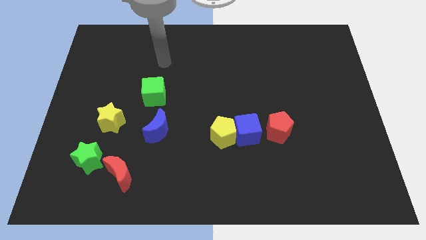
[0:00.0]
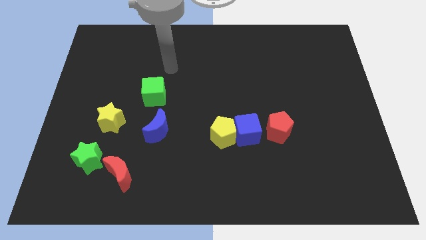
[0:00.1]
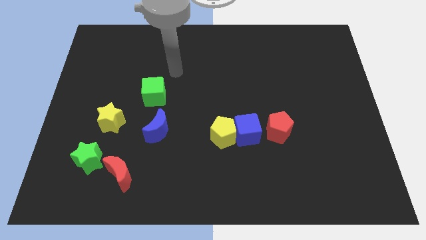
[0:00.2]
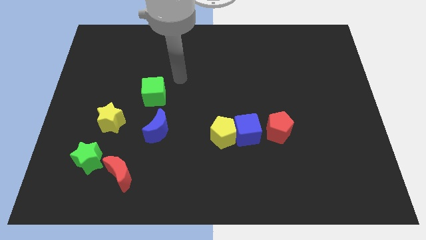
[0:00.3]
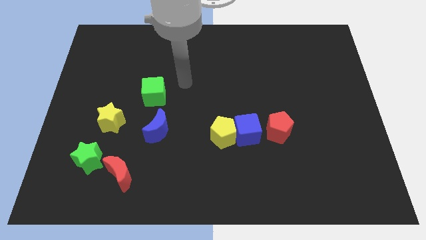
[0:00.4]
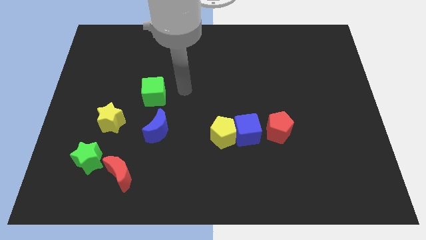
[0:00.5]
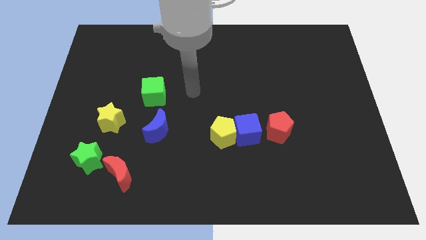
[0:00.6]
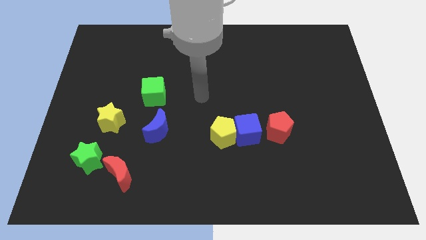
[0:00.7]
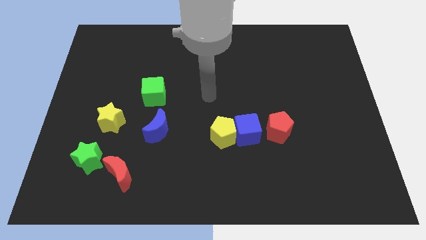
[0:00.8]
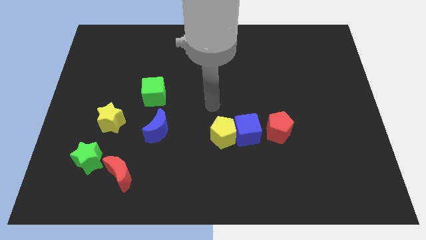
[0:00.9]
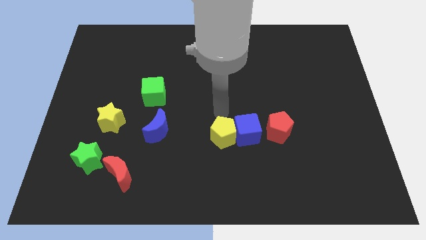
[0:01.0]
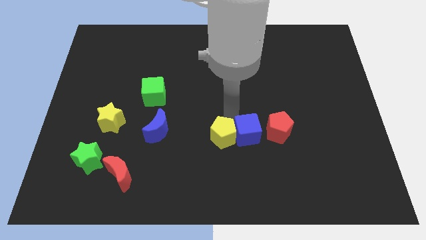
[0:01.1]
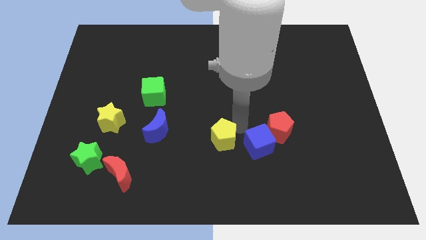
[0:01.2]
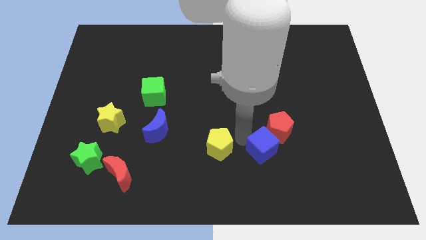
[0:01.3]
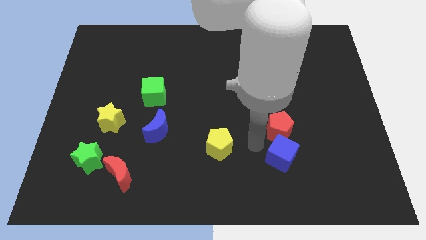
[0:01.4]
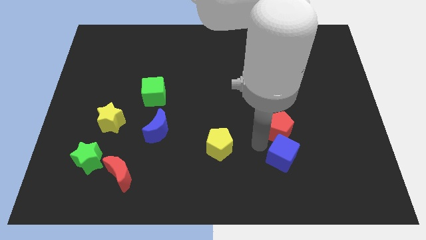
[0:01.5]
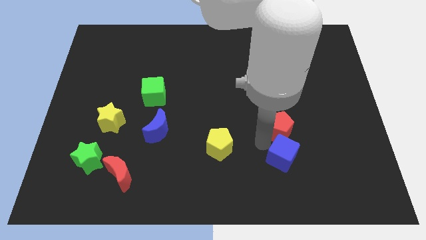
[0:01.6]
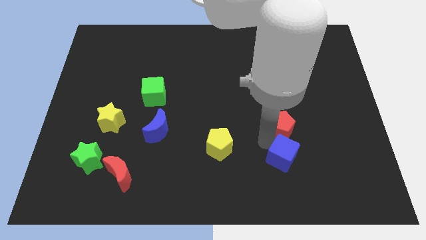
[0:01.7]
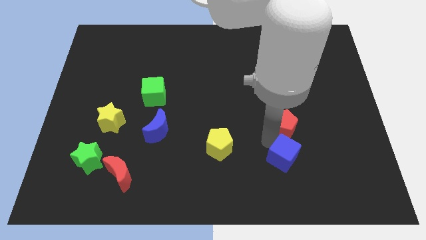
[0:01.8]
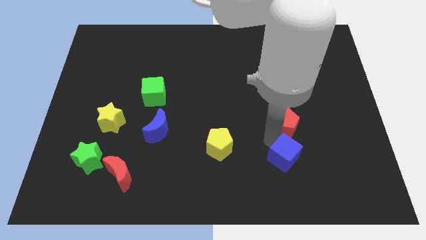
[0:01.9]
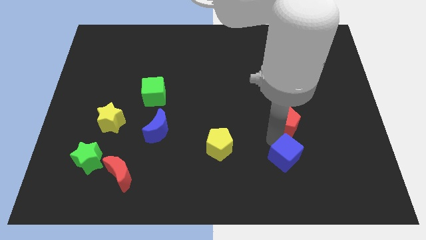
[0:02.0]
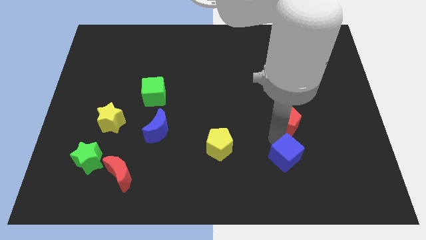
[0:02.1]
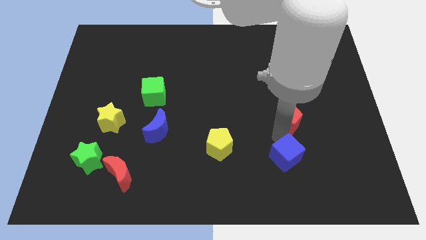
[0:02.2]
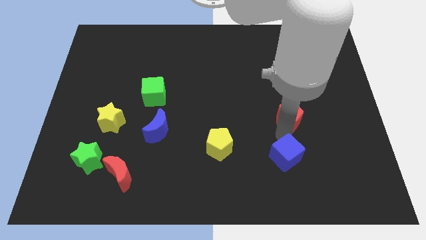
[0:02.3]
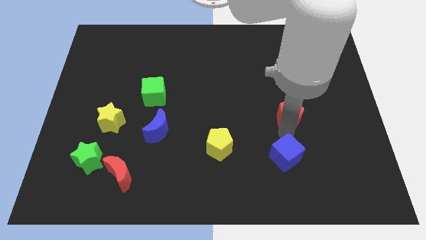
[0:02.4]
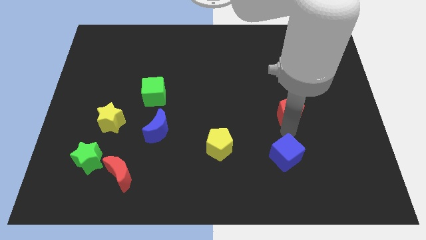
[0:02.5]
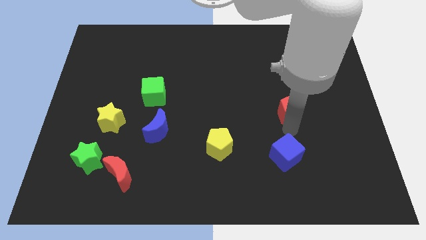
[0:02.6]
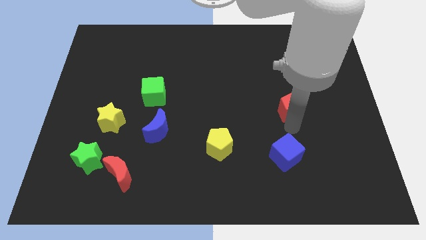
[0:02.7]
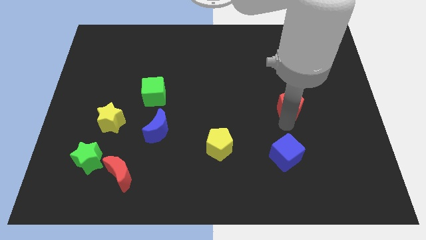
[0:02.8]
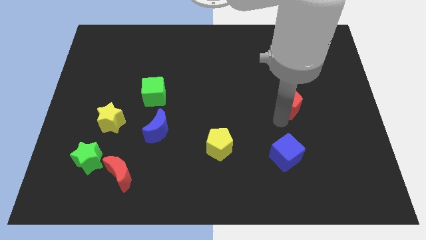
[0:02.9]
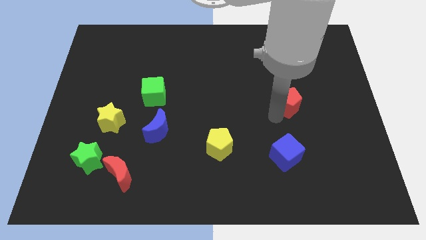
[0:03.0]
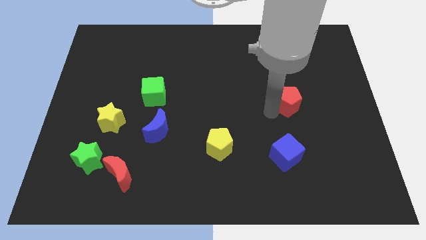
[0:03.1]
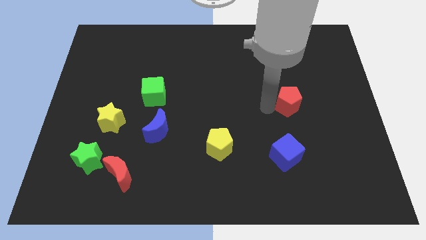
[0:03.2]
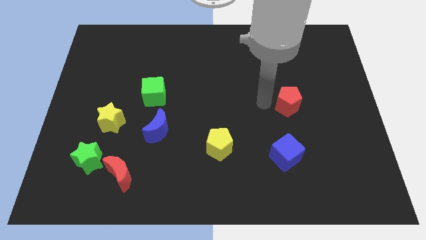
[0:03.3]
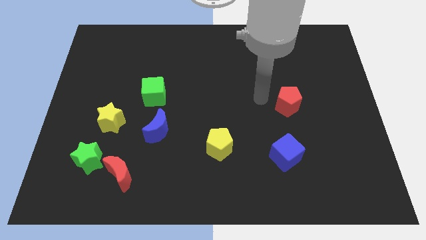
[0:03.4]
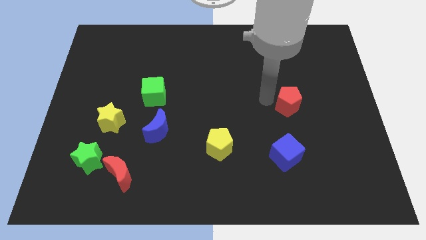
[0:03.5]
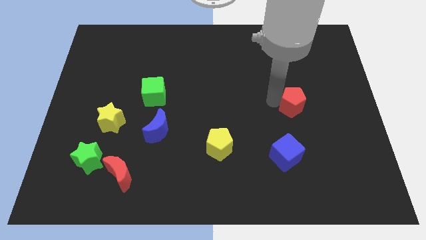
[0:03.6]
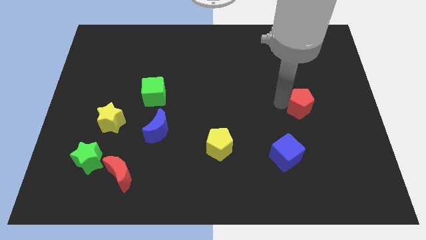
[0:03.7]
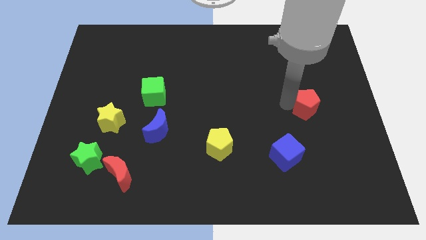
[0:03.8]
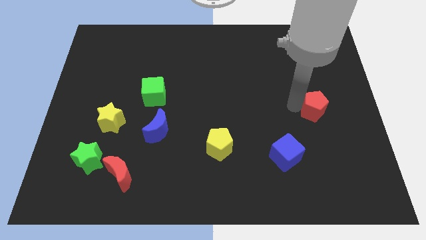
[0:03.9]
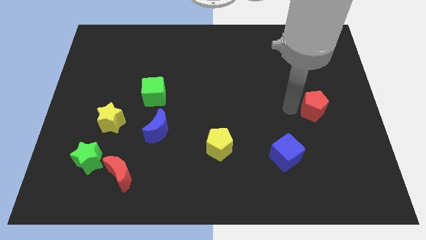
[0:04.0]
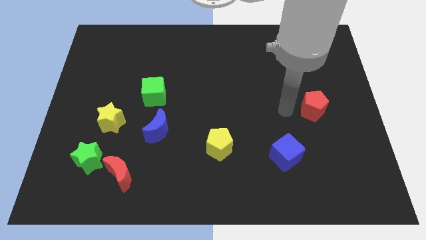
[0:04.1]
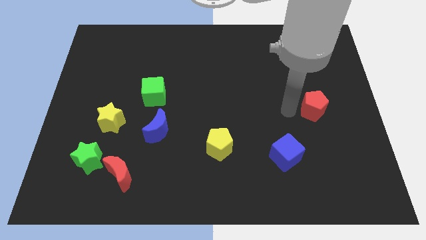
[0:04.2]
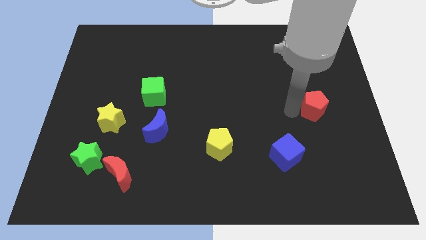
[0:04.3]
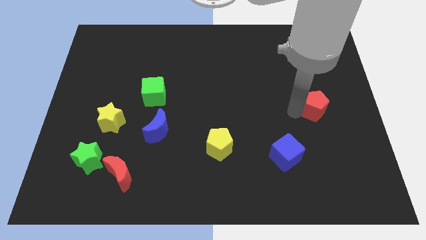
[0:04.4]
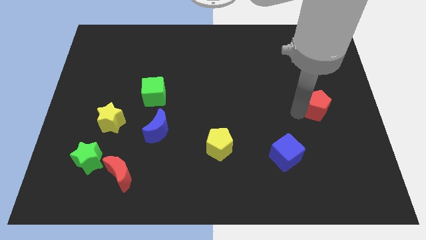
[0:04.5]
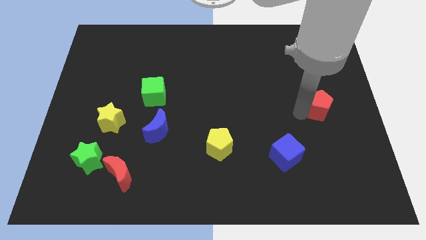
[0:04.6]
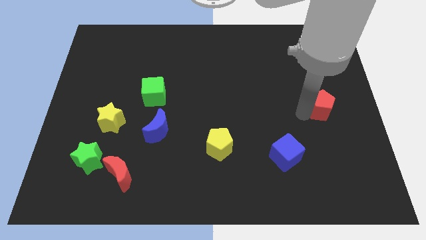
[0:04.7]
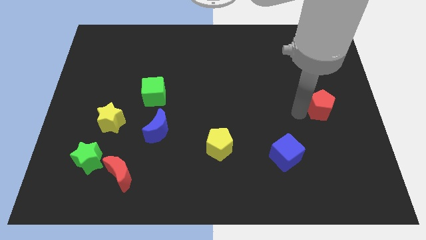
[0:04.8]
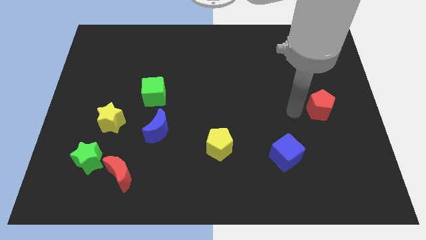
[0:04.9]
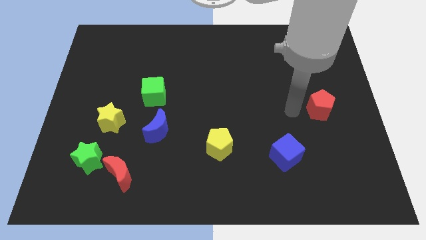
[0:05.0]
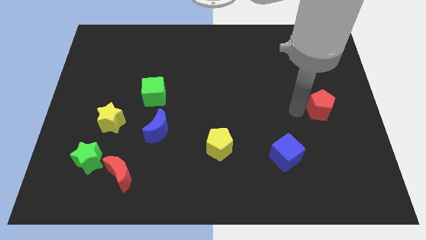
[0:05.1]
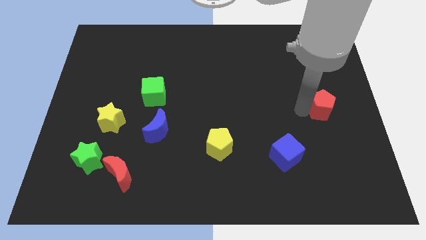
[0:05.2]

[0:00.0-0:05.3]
slide the red pentagon to the center right

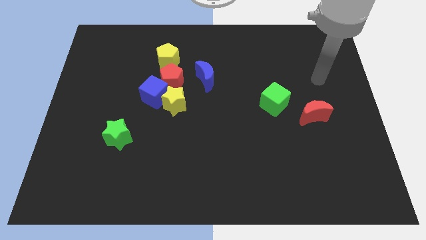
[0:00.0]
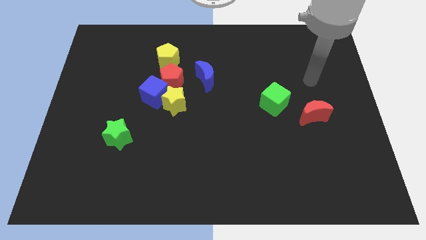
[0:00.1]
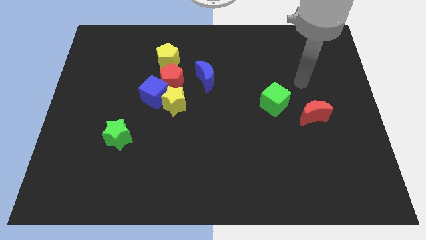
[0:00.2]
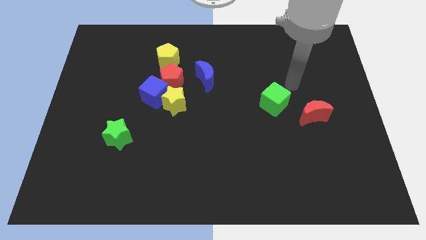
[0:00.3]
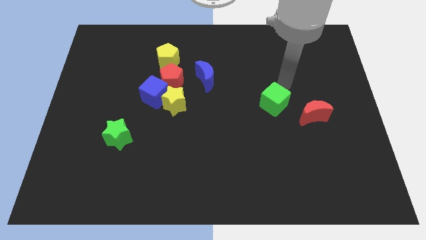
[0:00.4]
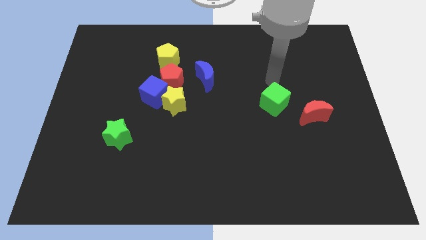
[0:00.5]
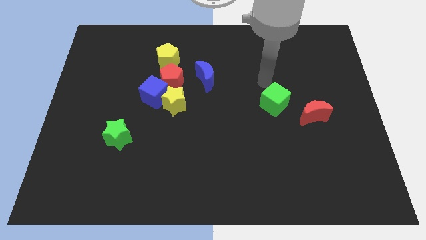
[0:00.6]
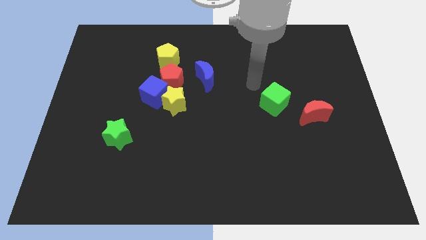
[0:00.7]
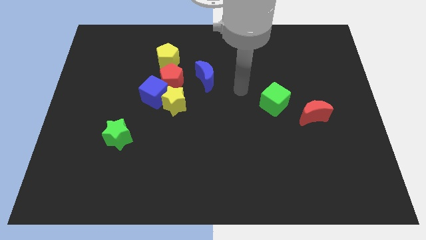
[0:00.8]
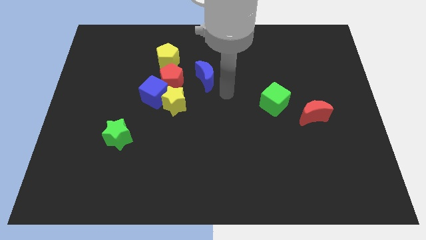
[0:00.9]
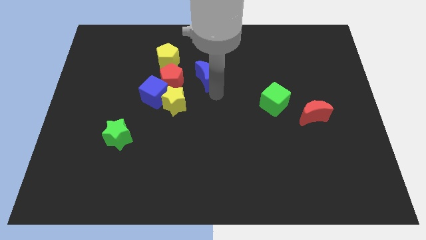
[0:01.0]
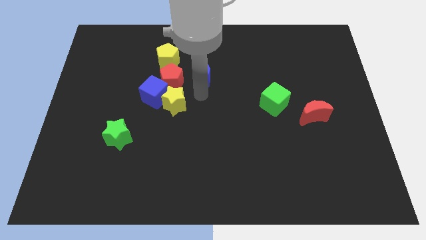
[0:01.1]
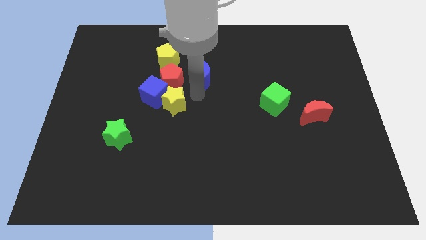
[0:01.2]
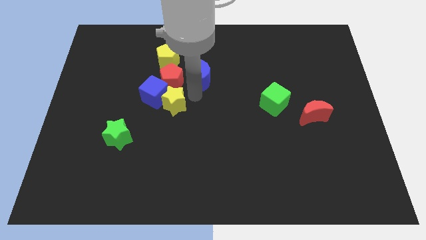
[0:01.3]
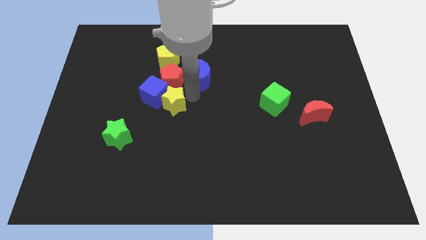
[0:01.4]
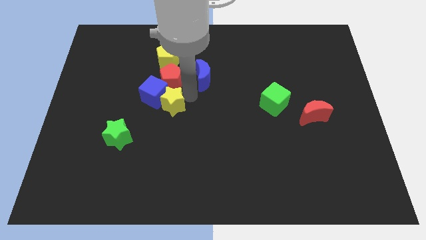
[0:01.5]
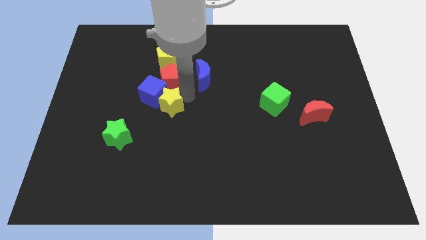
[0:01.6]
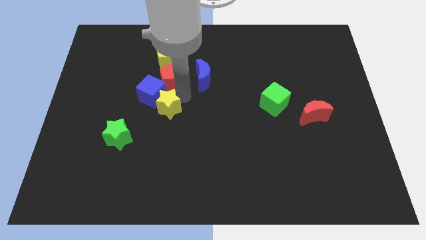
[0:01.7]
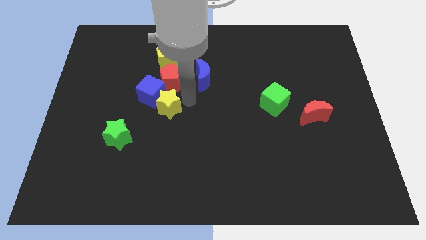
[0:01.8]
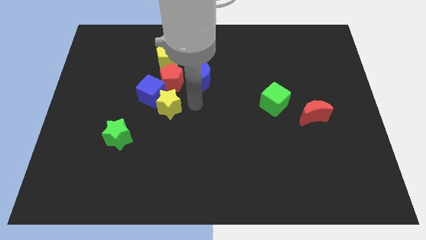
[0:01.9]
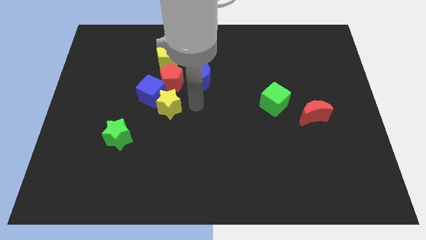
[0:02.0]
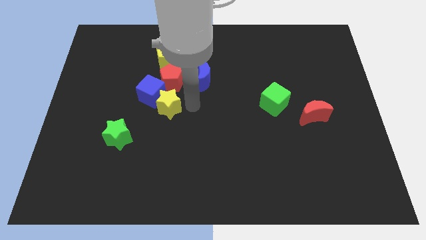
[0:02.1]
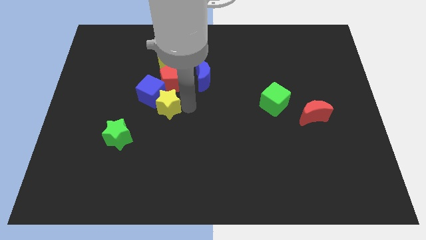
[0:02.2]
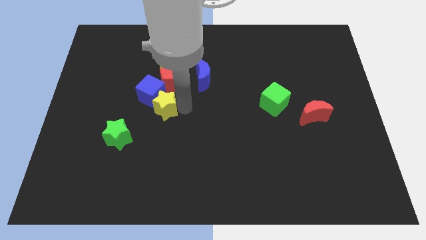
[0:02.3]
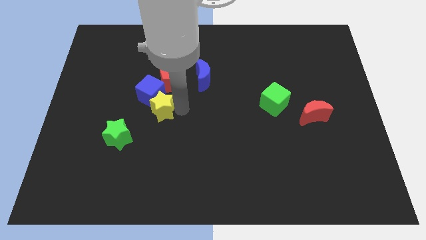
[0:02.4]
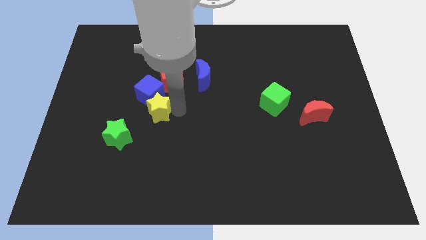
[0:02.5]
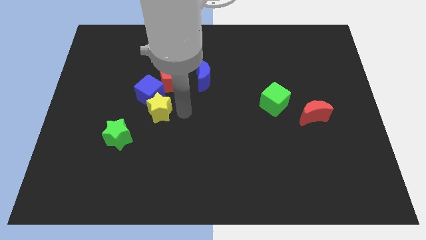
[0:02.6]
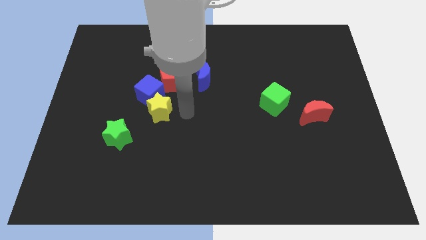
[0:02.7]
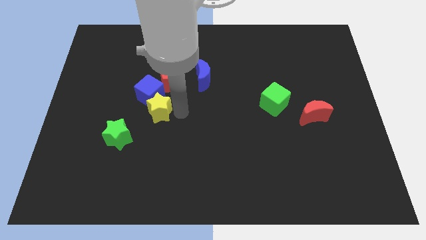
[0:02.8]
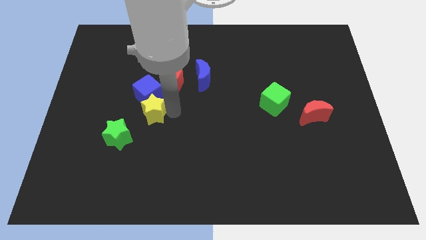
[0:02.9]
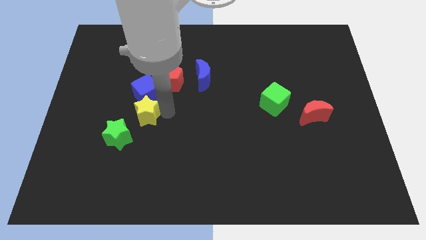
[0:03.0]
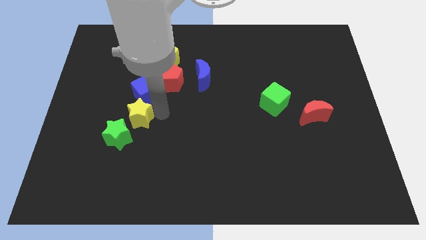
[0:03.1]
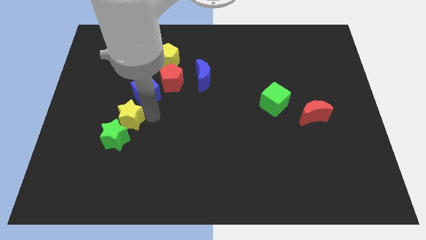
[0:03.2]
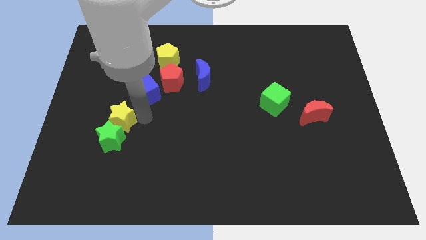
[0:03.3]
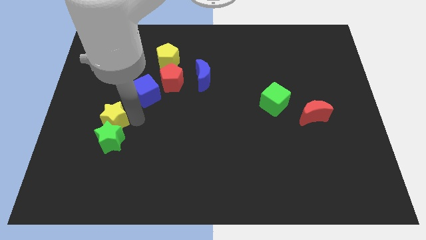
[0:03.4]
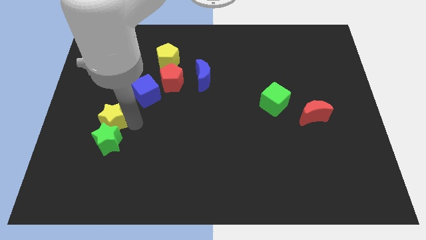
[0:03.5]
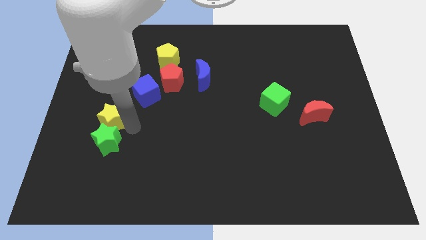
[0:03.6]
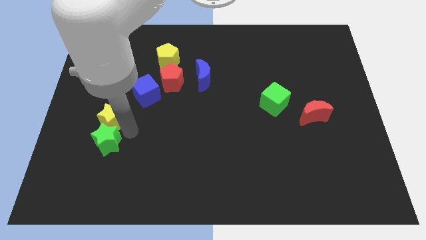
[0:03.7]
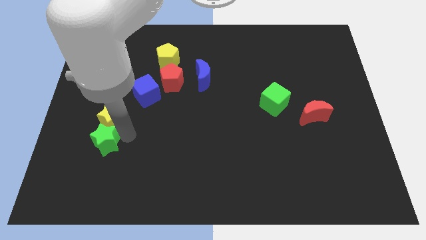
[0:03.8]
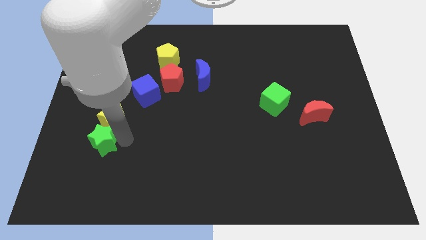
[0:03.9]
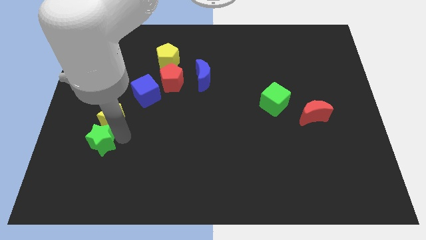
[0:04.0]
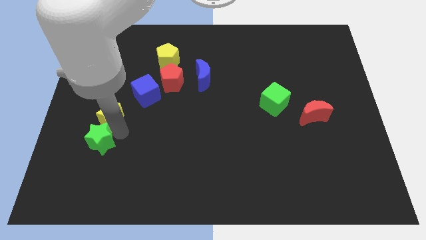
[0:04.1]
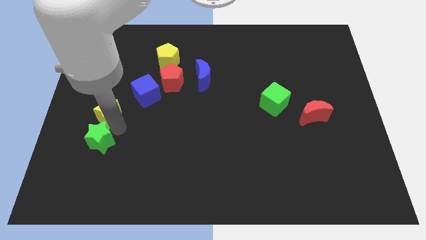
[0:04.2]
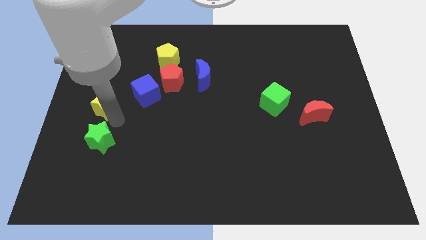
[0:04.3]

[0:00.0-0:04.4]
push the yellow star to the center left
